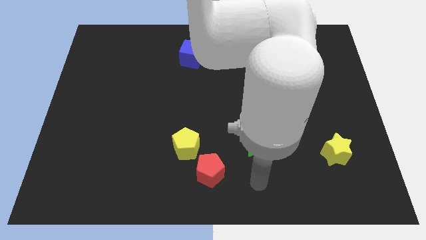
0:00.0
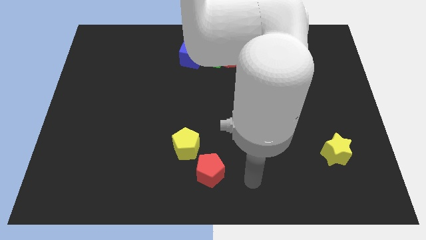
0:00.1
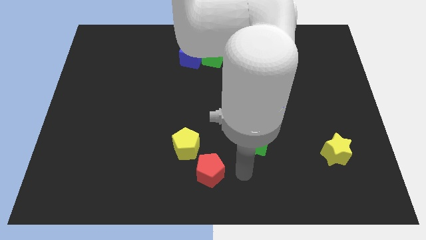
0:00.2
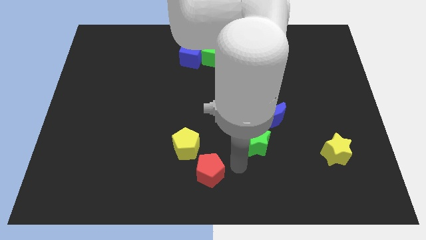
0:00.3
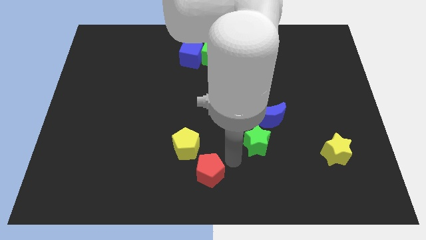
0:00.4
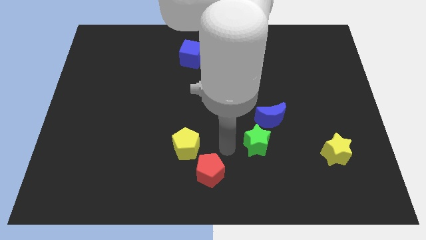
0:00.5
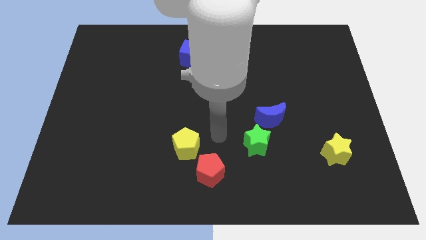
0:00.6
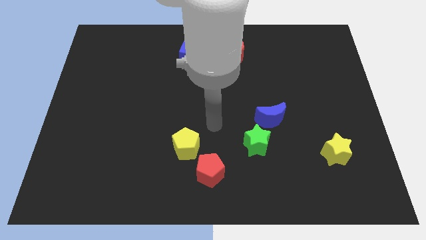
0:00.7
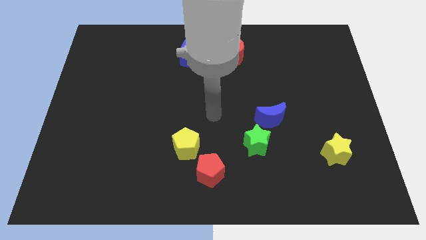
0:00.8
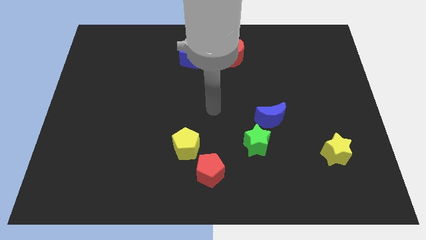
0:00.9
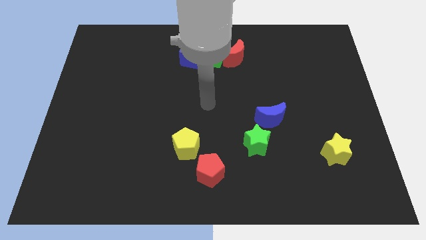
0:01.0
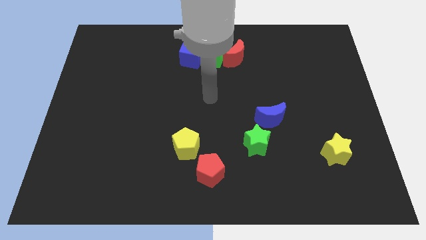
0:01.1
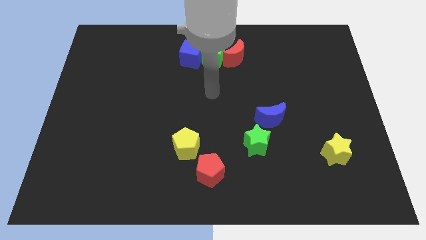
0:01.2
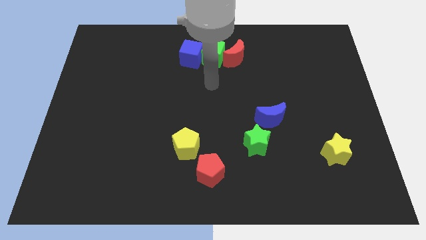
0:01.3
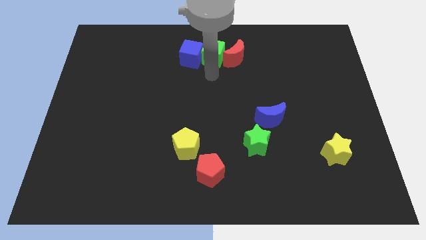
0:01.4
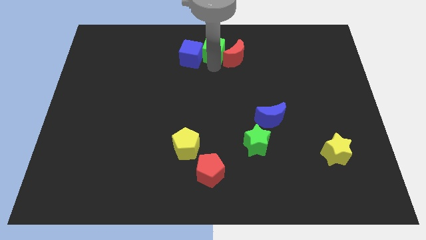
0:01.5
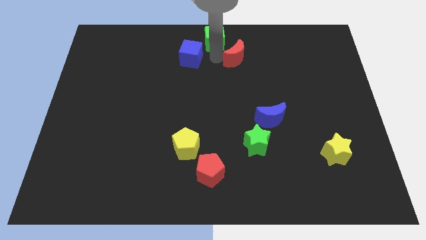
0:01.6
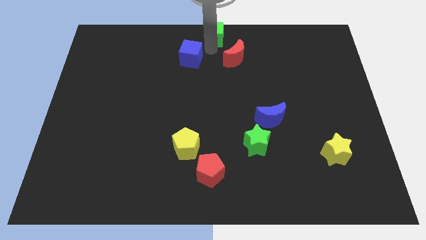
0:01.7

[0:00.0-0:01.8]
pull the blue cube apart from the green cube

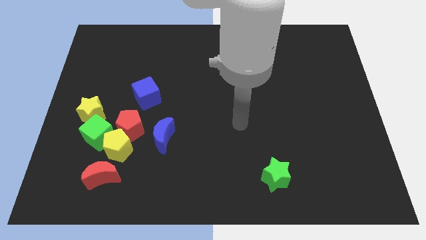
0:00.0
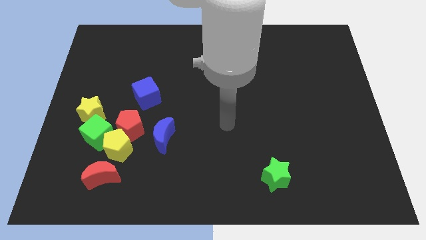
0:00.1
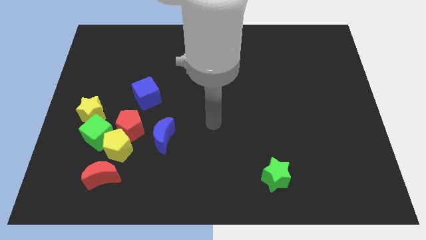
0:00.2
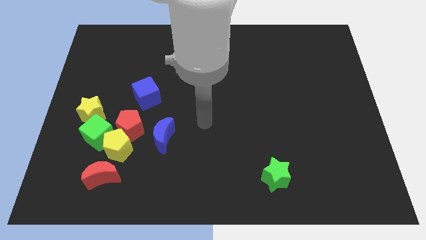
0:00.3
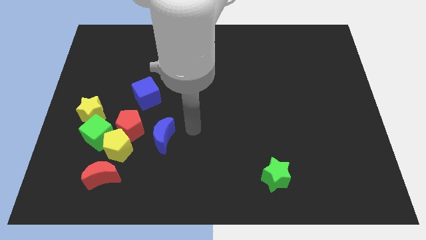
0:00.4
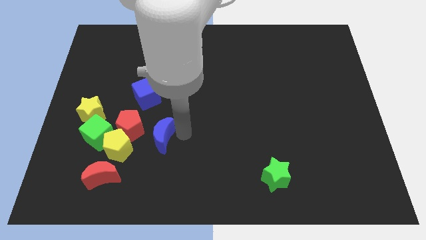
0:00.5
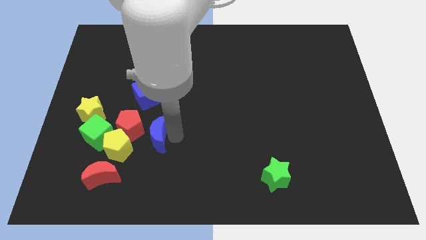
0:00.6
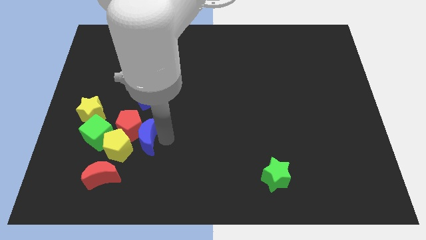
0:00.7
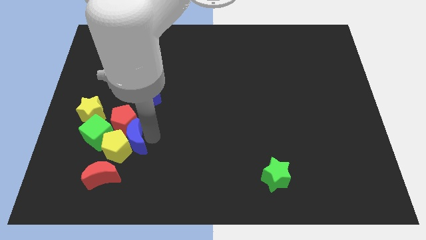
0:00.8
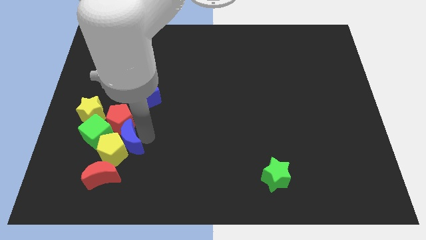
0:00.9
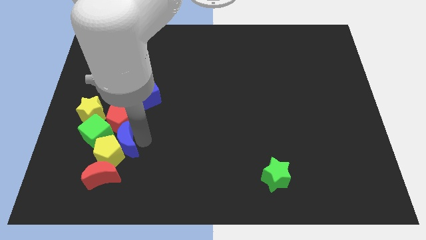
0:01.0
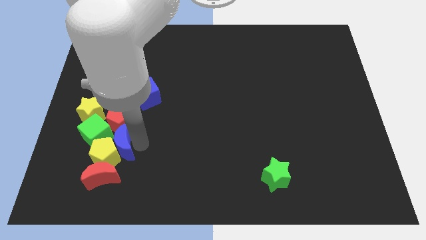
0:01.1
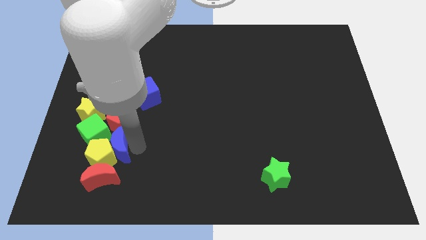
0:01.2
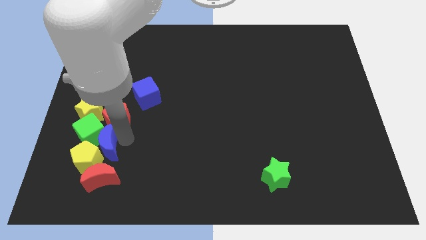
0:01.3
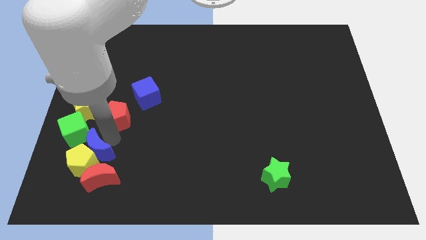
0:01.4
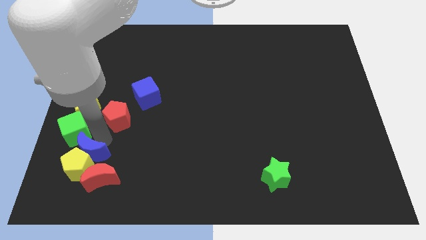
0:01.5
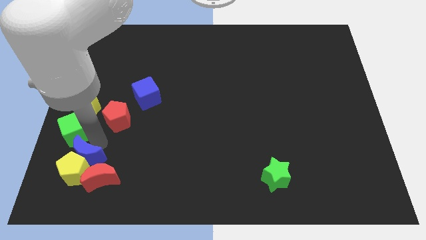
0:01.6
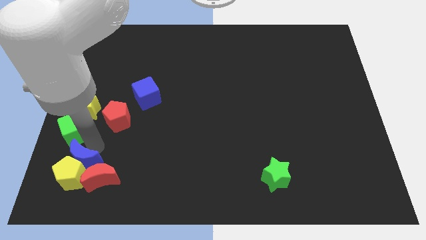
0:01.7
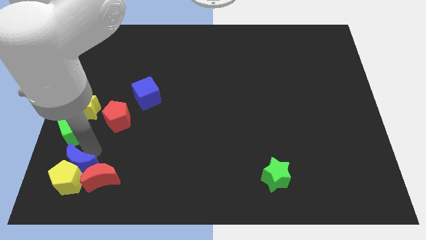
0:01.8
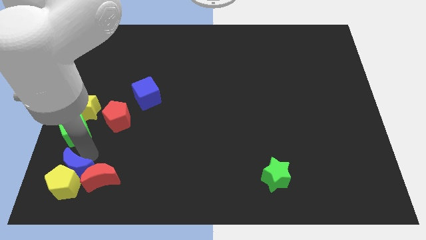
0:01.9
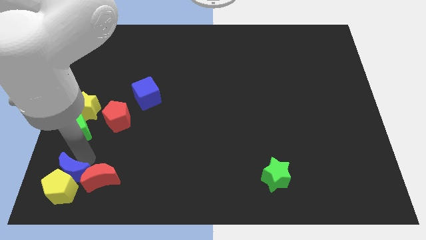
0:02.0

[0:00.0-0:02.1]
move the yellow pentagon away from the group of blocks

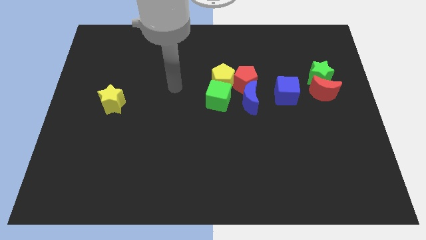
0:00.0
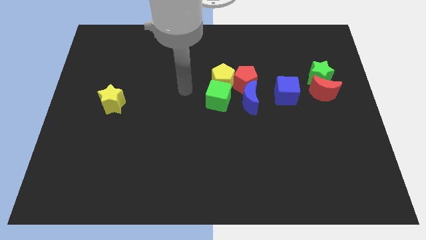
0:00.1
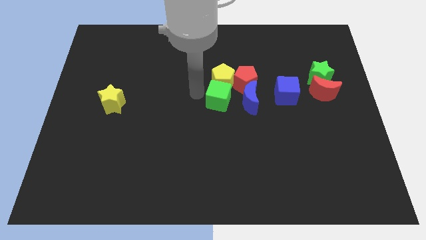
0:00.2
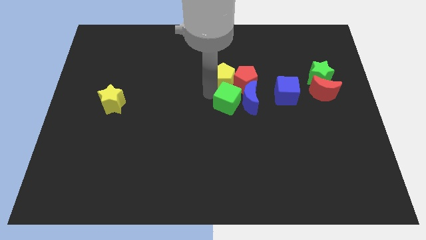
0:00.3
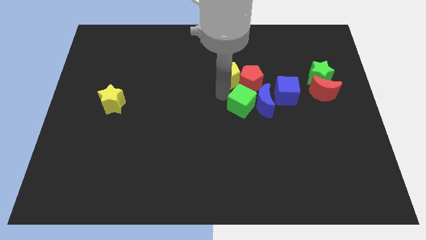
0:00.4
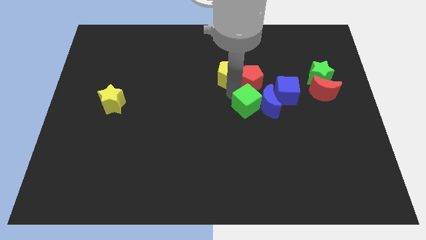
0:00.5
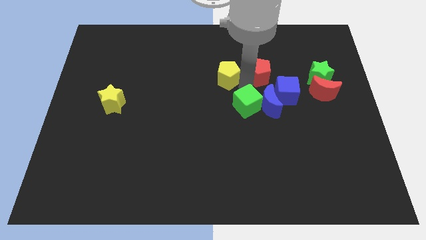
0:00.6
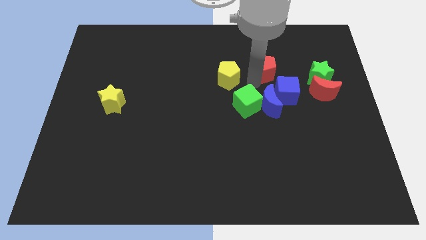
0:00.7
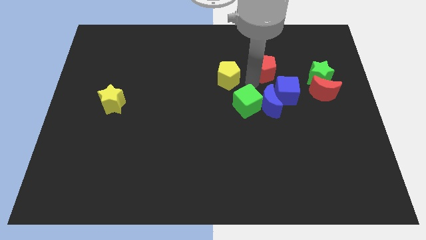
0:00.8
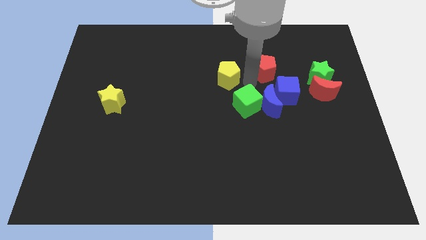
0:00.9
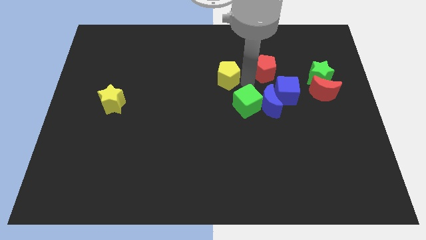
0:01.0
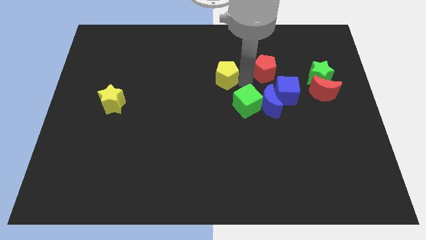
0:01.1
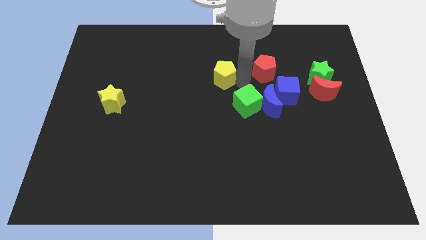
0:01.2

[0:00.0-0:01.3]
move the yellow pentagon away from the red pentagon, green cube, and blue moon

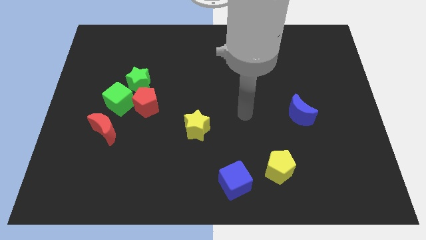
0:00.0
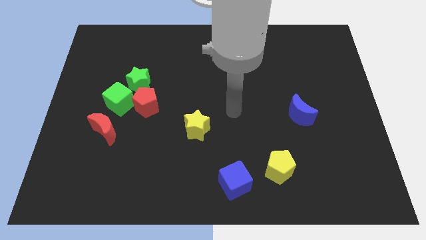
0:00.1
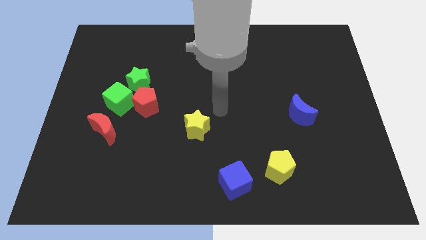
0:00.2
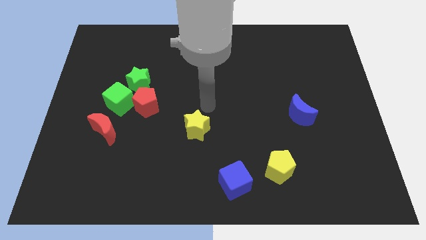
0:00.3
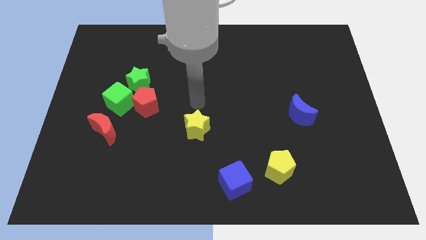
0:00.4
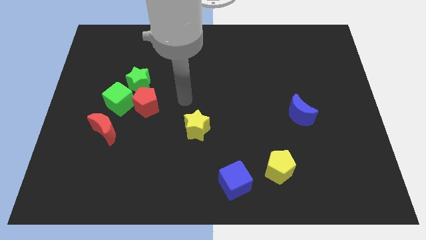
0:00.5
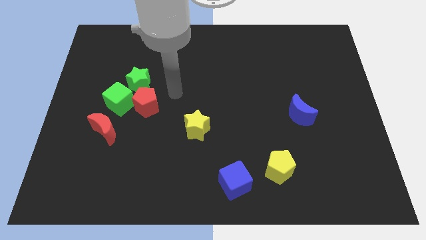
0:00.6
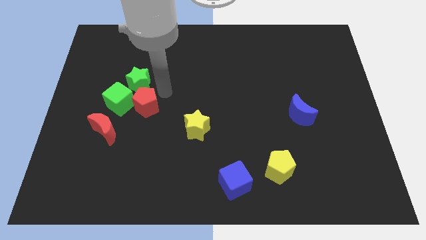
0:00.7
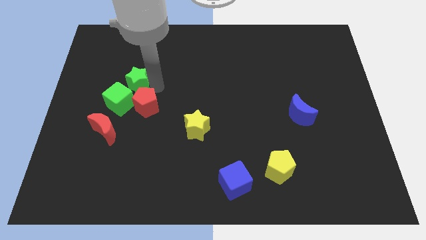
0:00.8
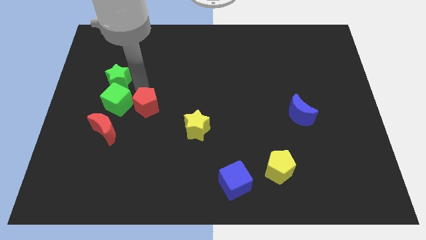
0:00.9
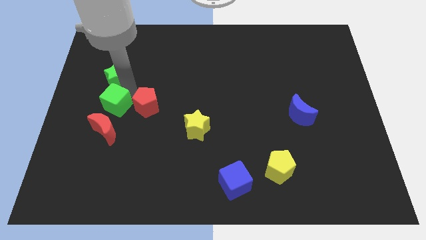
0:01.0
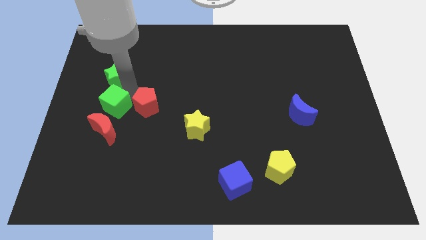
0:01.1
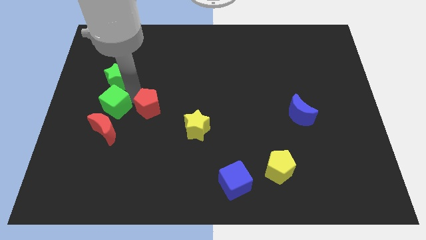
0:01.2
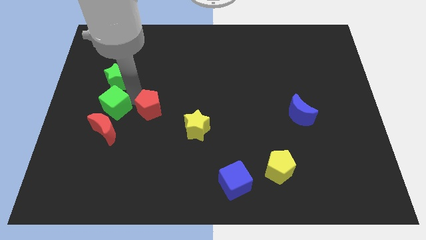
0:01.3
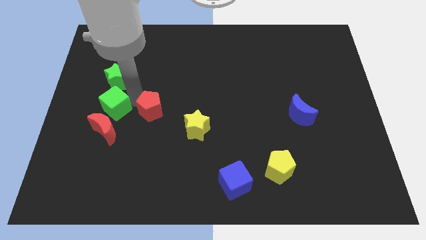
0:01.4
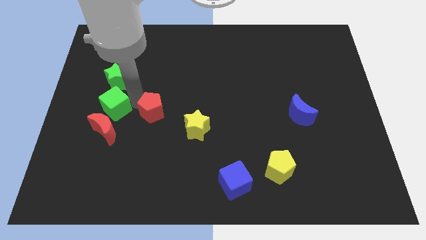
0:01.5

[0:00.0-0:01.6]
move the red pentagon away from the green cube and green star

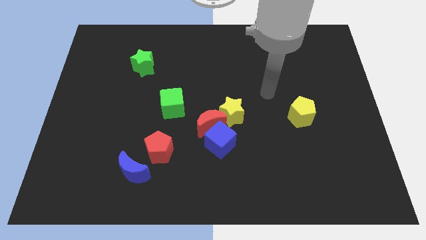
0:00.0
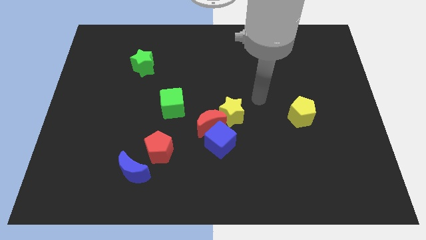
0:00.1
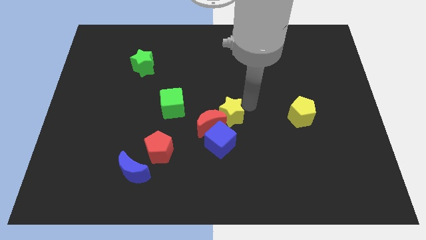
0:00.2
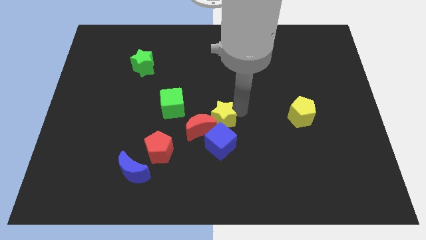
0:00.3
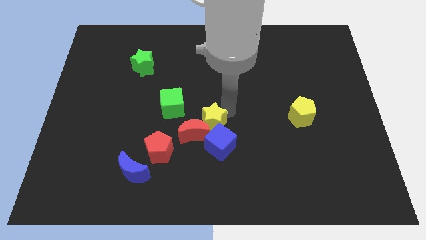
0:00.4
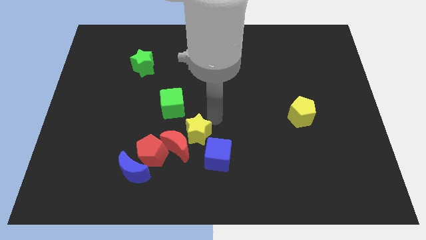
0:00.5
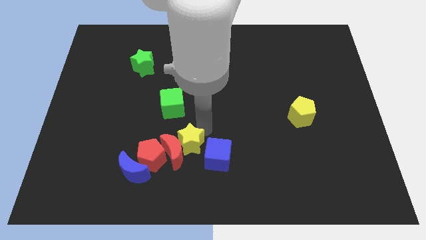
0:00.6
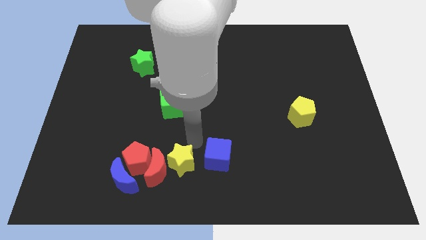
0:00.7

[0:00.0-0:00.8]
separate the blue cube from the red moon and yellow star

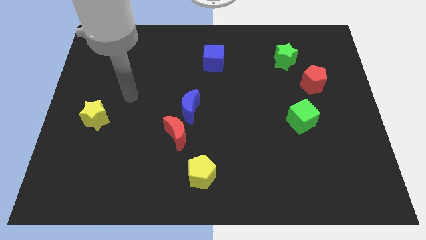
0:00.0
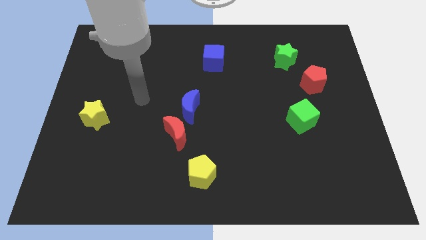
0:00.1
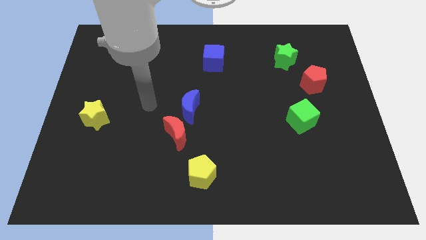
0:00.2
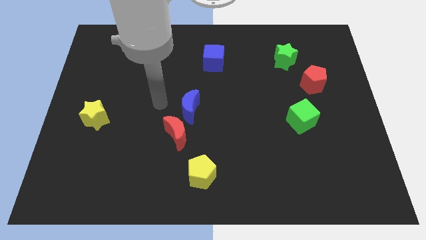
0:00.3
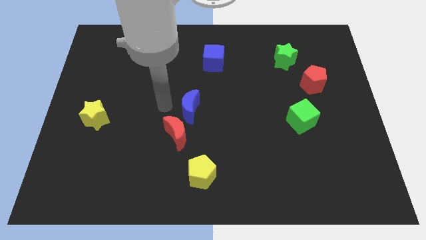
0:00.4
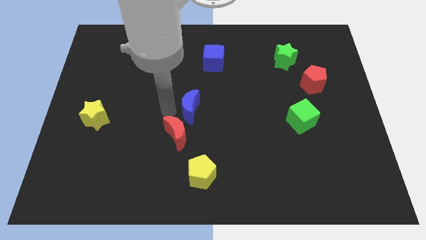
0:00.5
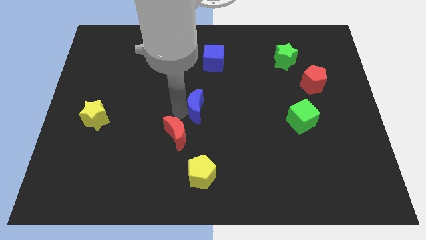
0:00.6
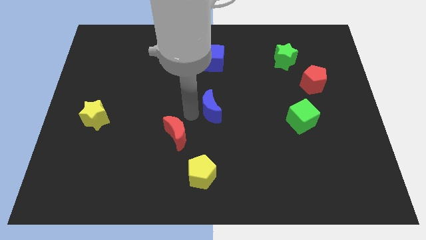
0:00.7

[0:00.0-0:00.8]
pull the red moon apart from the blue moon

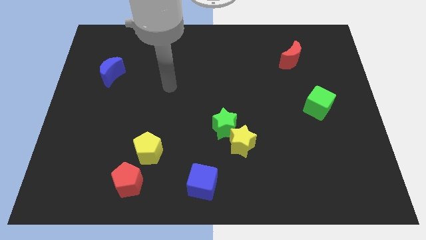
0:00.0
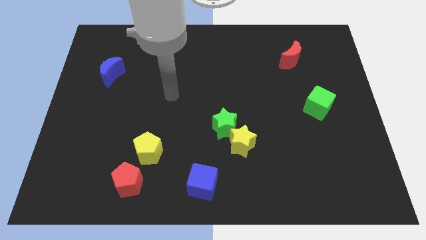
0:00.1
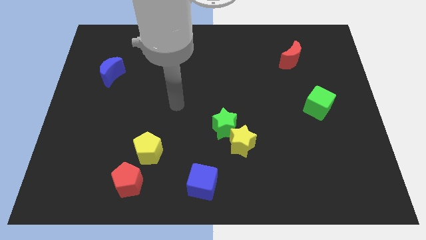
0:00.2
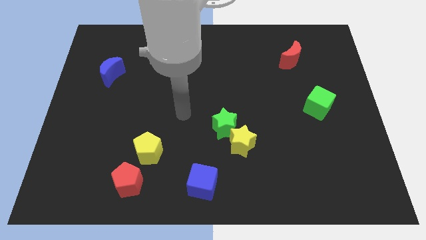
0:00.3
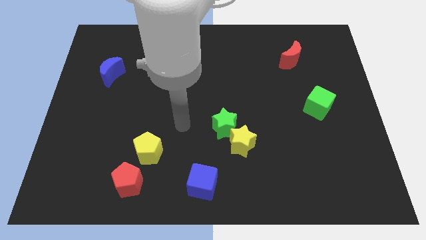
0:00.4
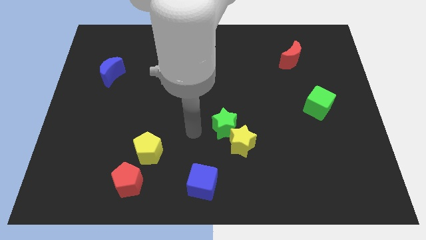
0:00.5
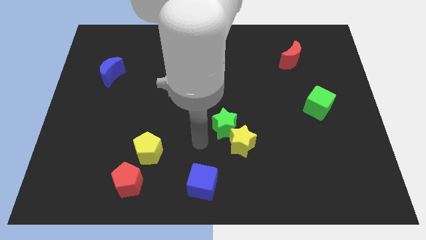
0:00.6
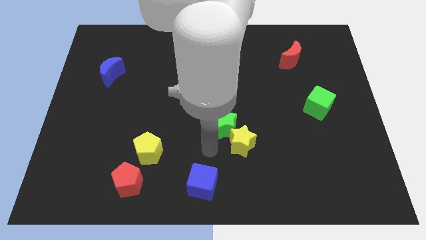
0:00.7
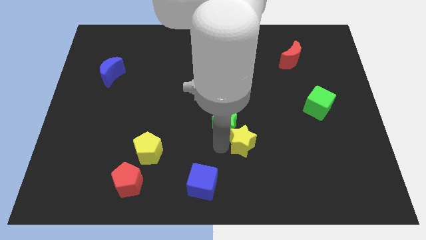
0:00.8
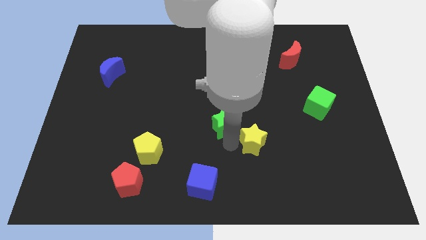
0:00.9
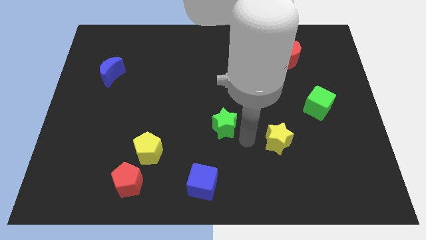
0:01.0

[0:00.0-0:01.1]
separate the green star from the yellow star
